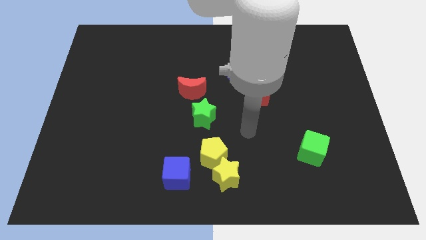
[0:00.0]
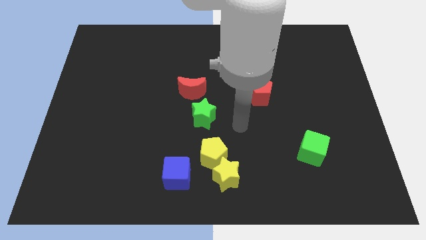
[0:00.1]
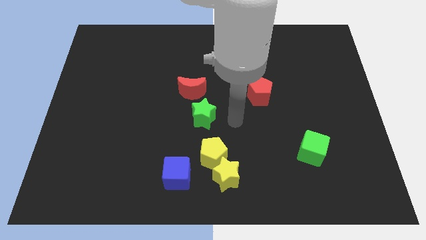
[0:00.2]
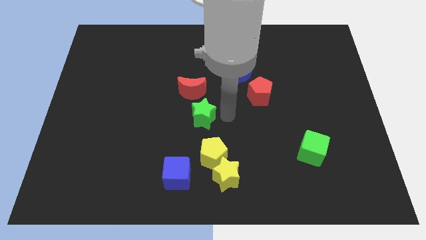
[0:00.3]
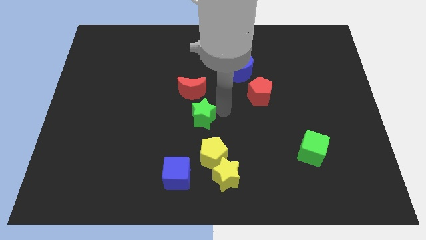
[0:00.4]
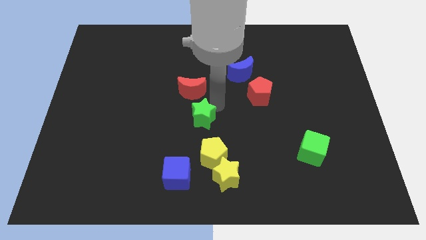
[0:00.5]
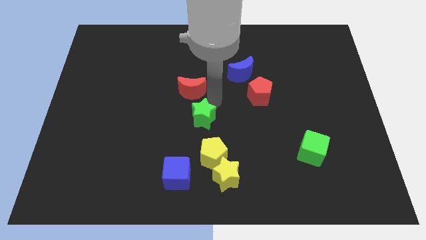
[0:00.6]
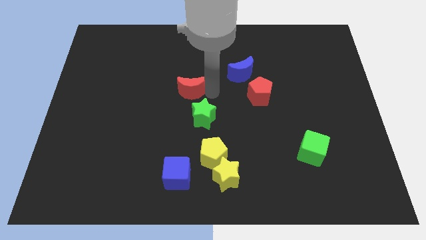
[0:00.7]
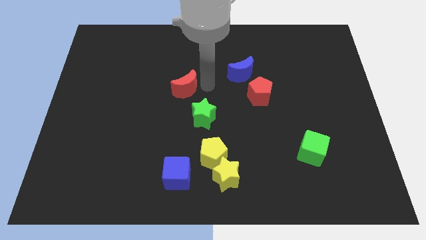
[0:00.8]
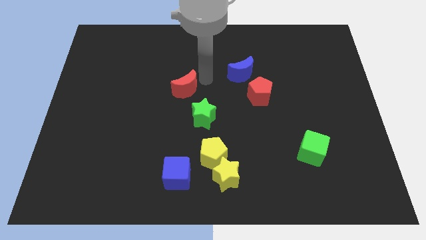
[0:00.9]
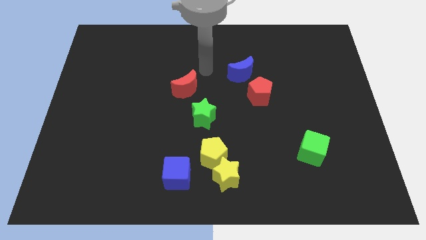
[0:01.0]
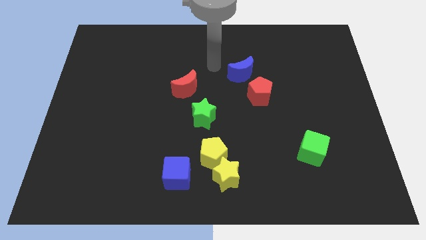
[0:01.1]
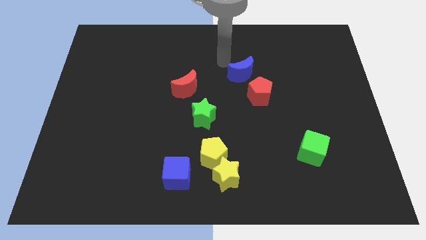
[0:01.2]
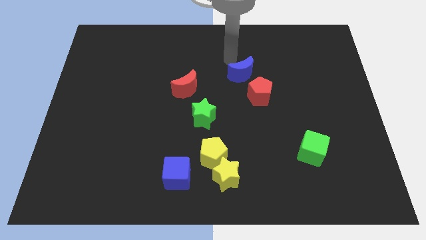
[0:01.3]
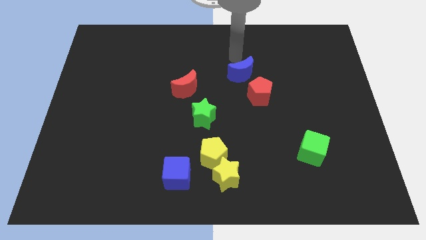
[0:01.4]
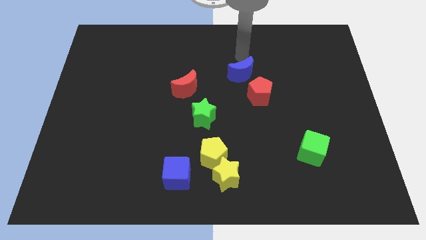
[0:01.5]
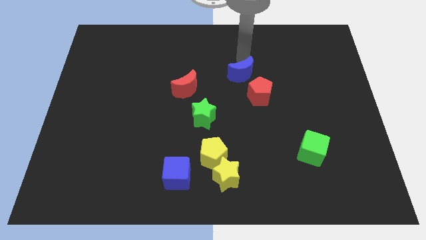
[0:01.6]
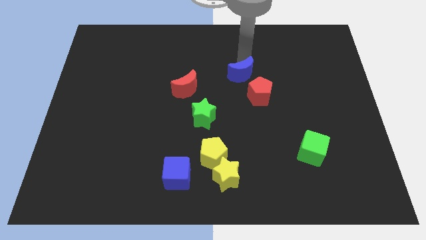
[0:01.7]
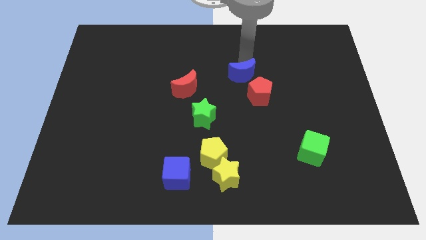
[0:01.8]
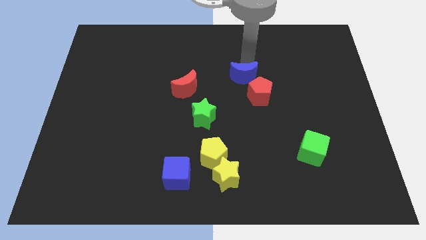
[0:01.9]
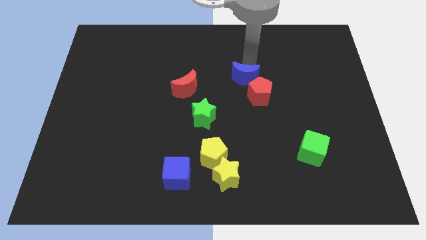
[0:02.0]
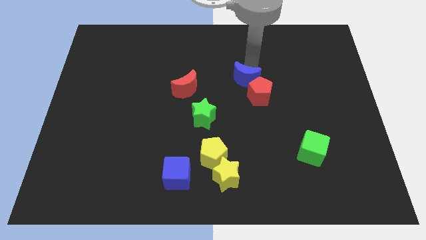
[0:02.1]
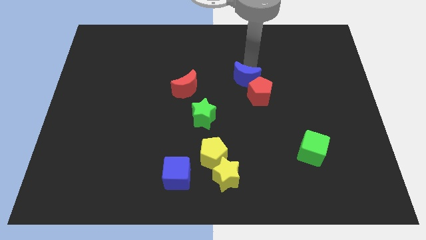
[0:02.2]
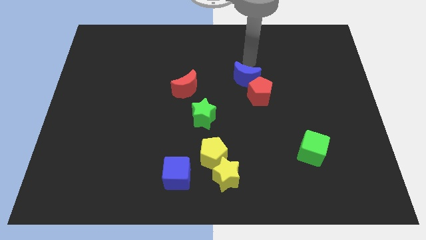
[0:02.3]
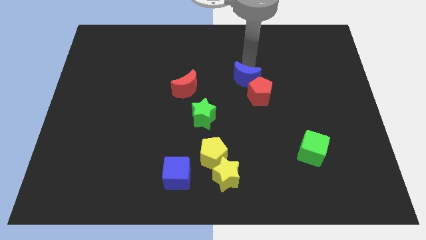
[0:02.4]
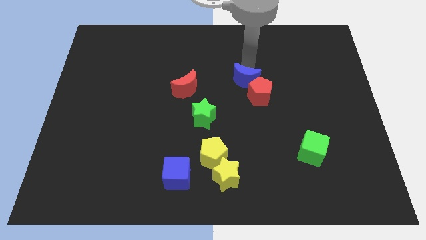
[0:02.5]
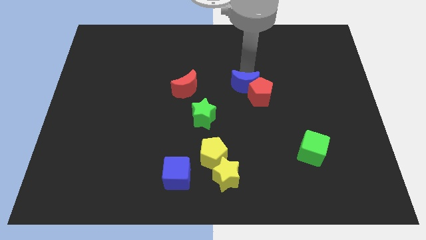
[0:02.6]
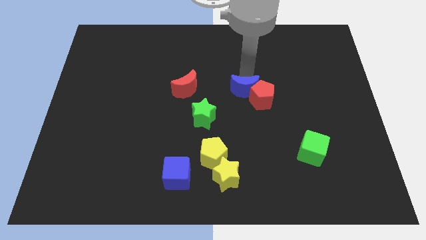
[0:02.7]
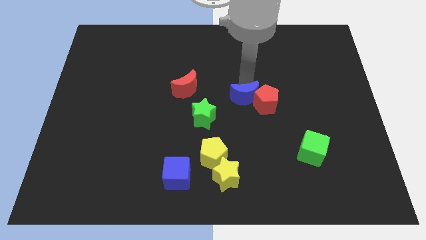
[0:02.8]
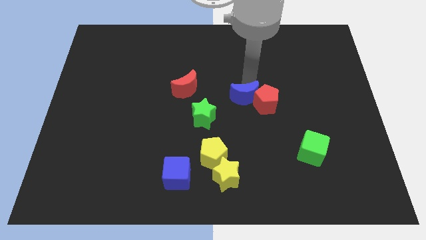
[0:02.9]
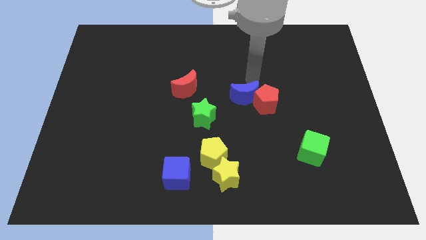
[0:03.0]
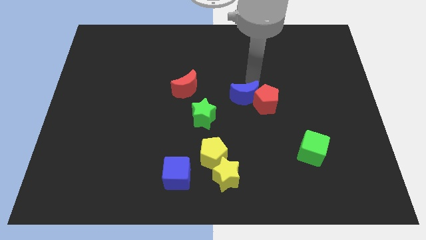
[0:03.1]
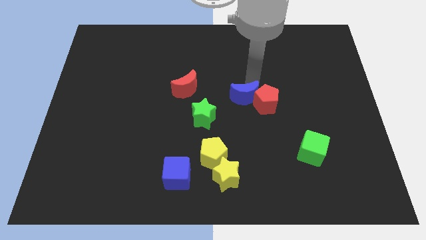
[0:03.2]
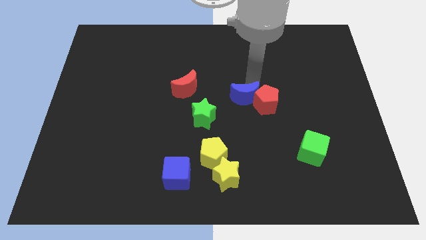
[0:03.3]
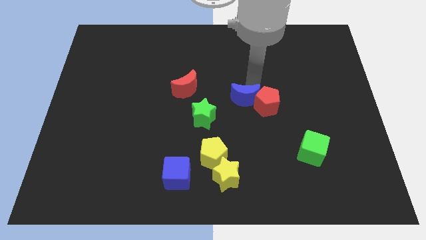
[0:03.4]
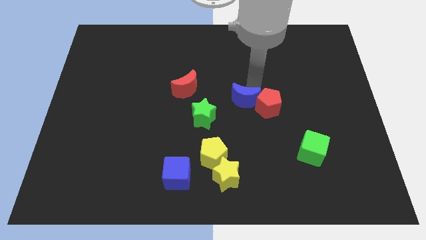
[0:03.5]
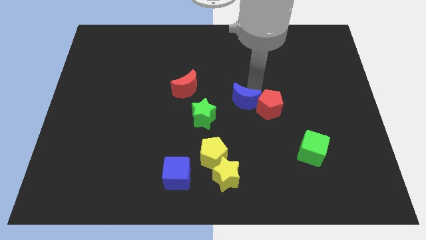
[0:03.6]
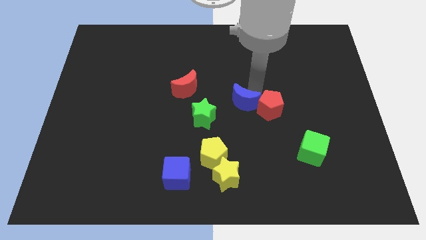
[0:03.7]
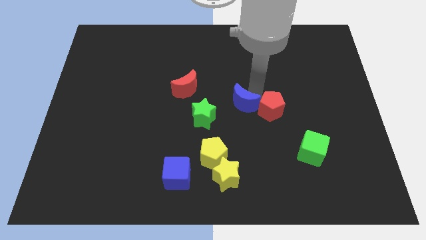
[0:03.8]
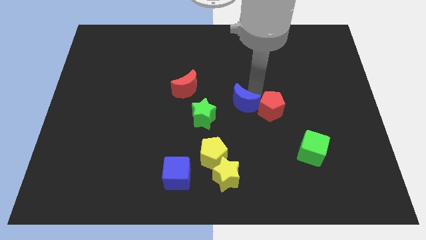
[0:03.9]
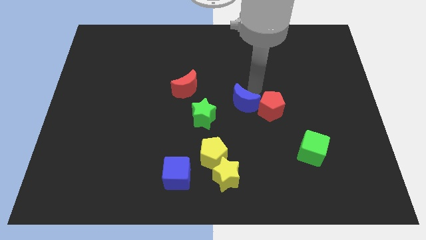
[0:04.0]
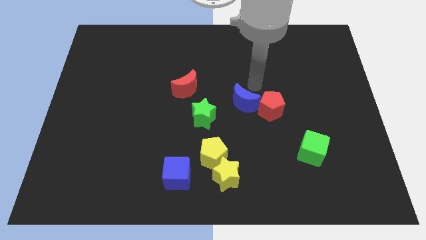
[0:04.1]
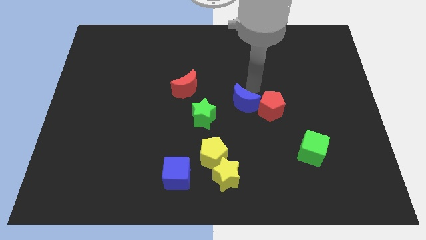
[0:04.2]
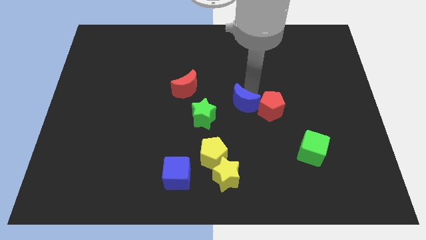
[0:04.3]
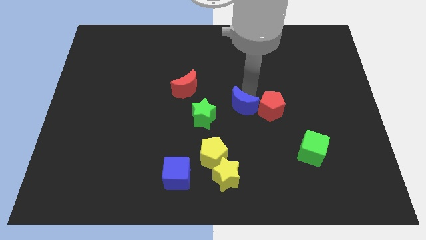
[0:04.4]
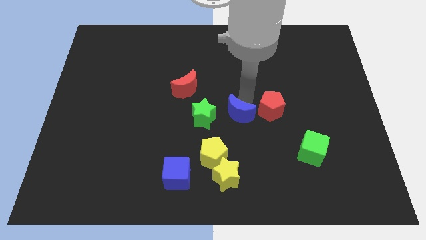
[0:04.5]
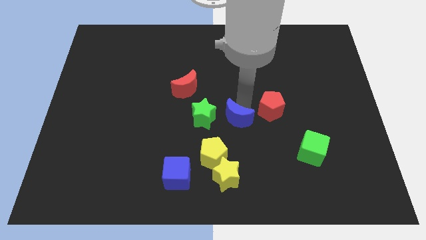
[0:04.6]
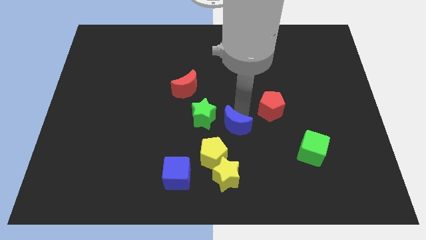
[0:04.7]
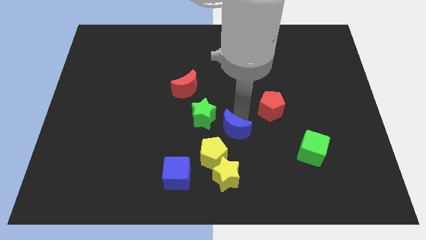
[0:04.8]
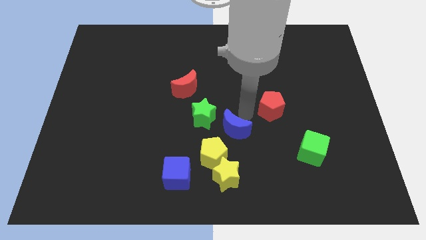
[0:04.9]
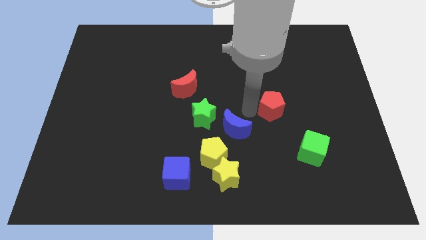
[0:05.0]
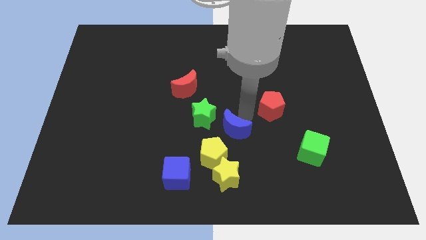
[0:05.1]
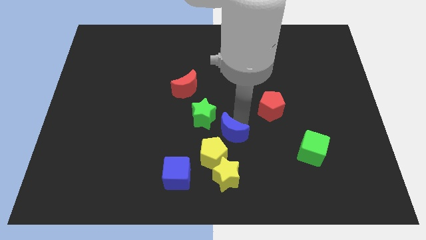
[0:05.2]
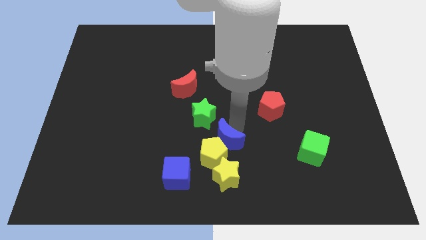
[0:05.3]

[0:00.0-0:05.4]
push the blue moon towards the yellow pentagon

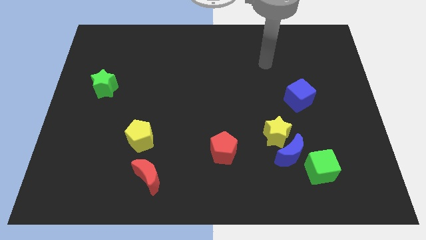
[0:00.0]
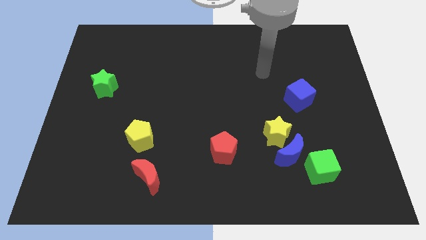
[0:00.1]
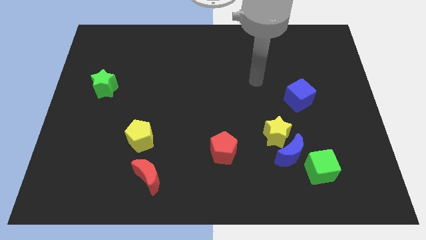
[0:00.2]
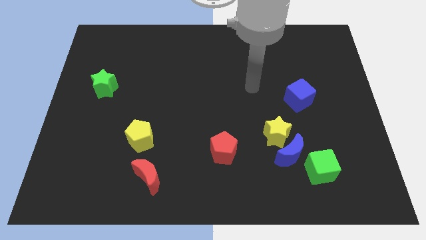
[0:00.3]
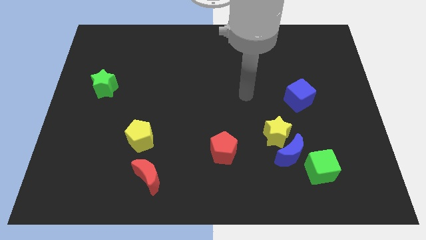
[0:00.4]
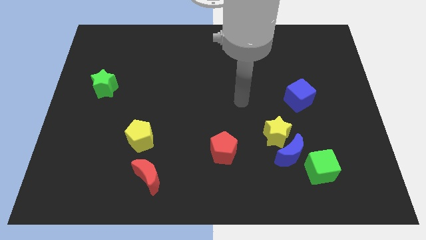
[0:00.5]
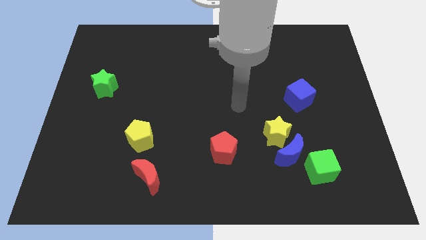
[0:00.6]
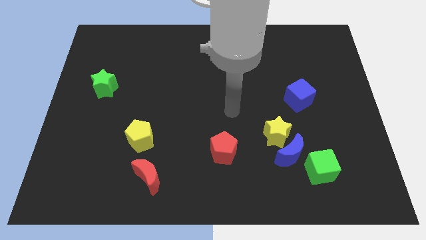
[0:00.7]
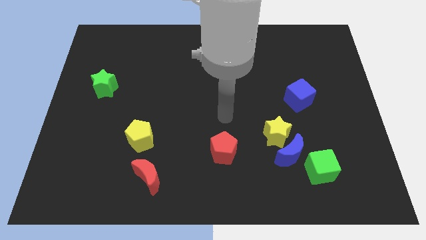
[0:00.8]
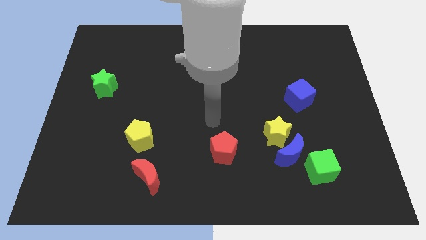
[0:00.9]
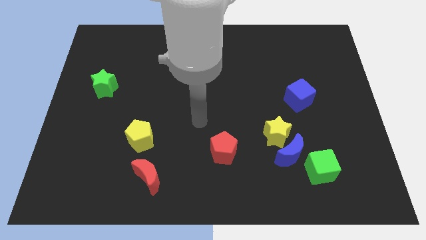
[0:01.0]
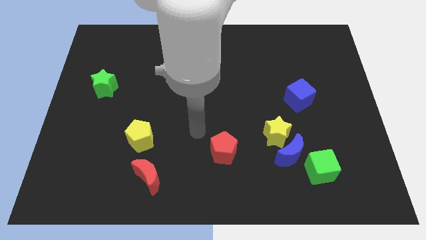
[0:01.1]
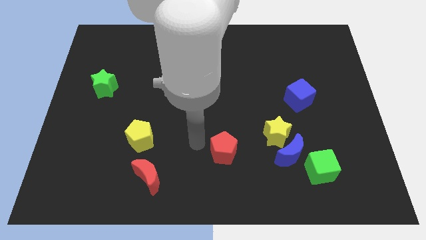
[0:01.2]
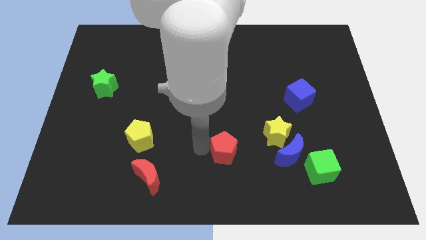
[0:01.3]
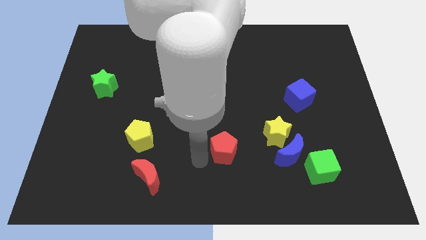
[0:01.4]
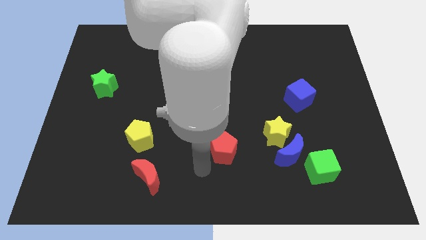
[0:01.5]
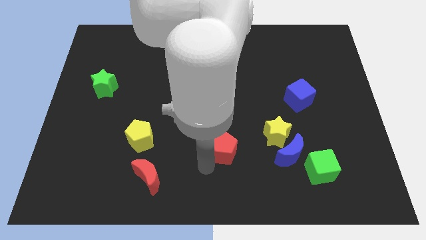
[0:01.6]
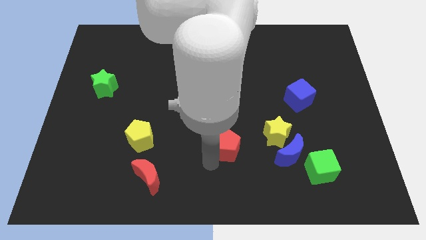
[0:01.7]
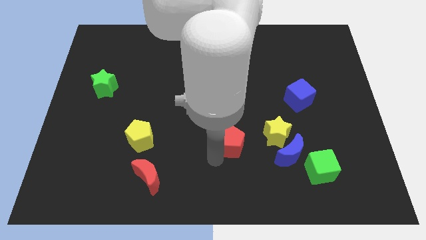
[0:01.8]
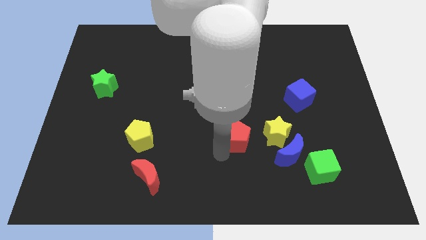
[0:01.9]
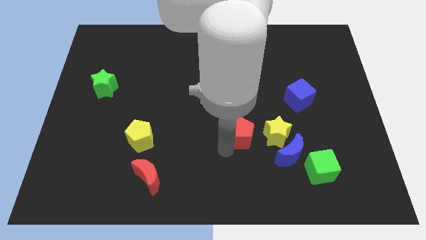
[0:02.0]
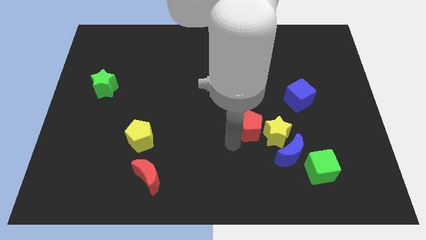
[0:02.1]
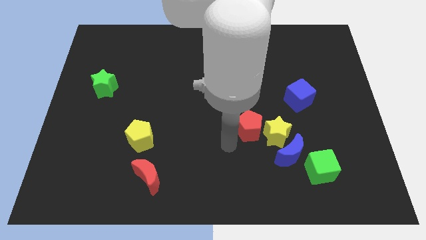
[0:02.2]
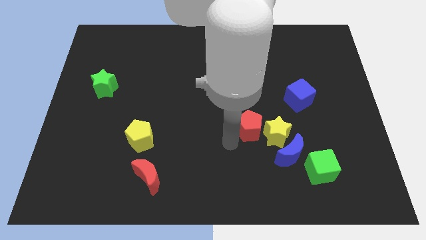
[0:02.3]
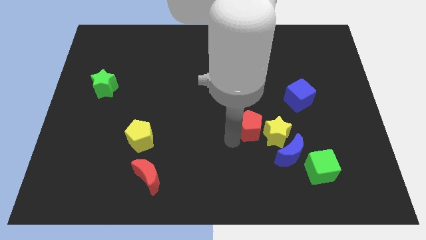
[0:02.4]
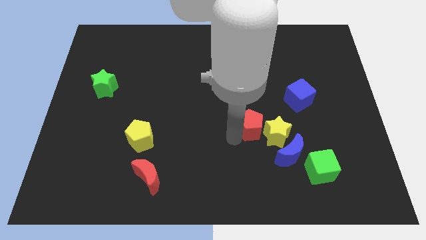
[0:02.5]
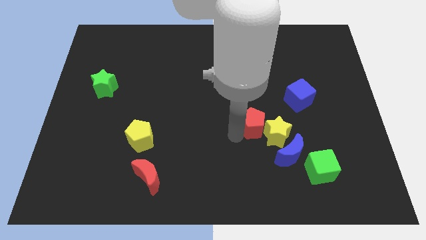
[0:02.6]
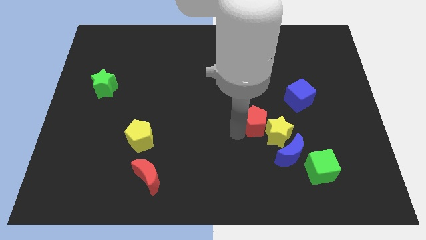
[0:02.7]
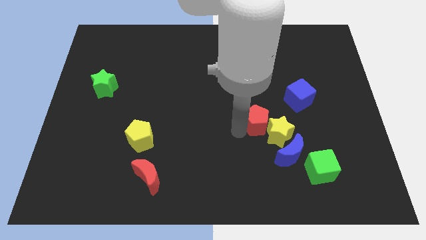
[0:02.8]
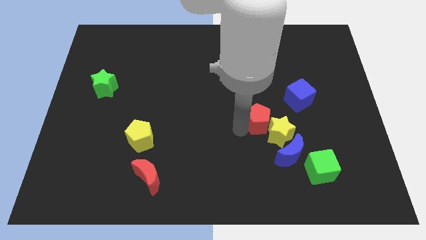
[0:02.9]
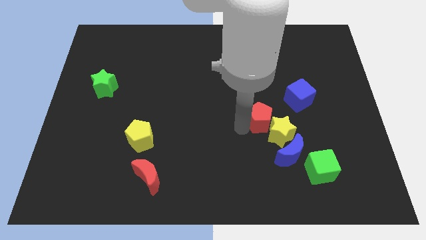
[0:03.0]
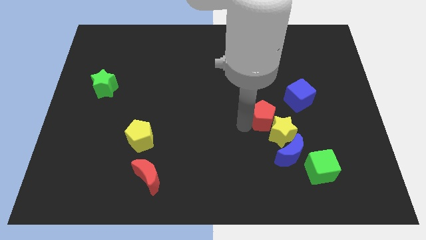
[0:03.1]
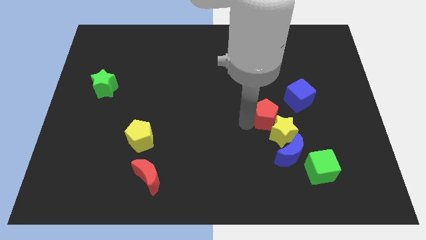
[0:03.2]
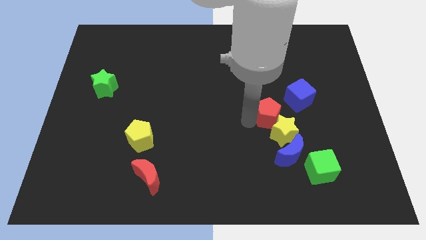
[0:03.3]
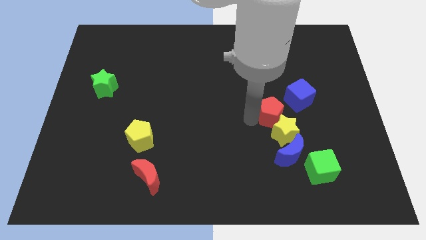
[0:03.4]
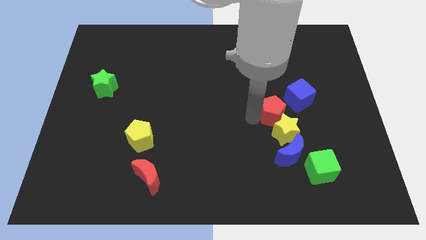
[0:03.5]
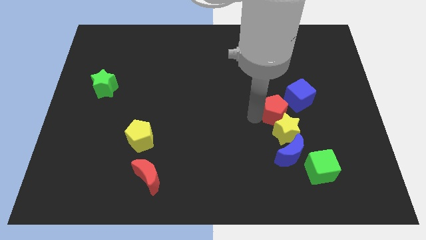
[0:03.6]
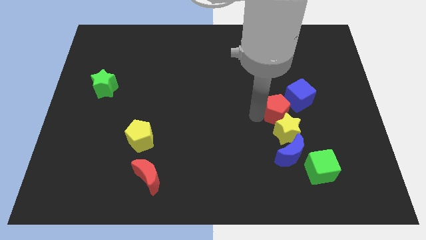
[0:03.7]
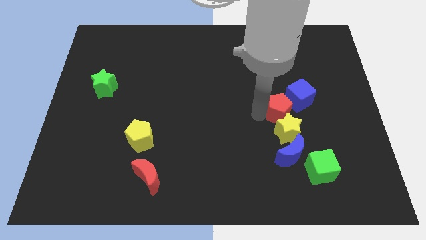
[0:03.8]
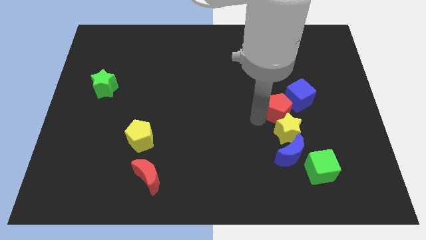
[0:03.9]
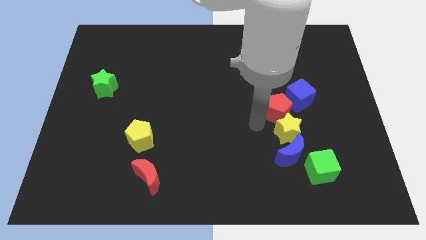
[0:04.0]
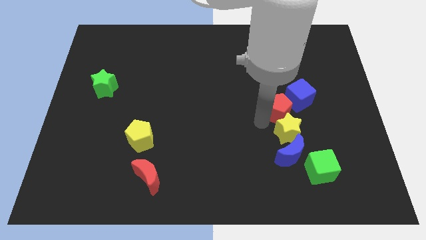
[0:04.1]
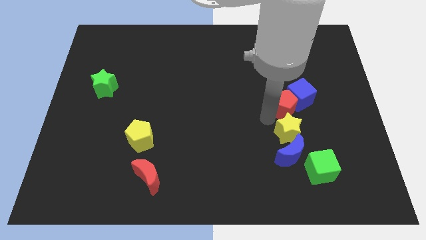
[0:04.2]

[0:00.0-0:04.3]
slide the red pentagon towards the blue cube
